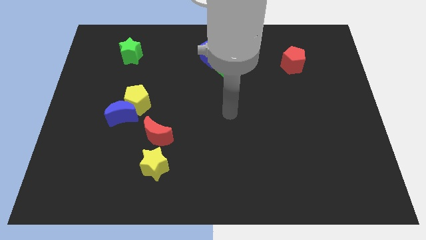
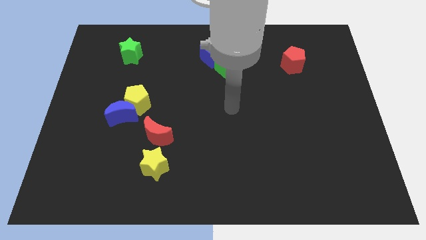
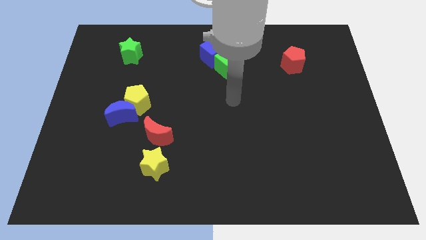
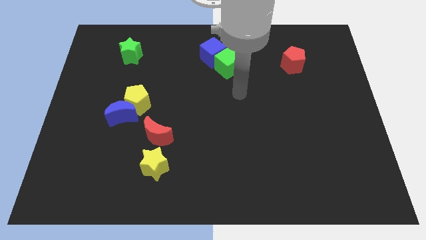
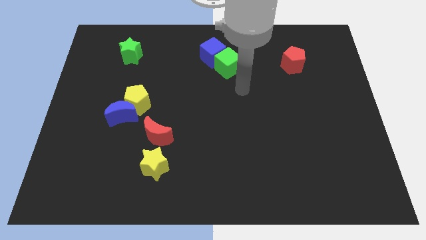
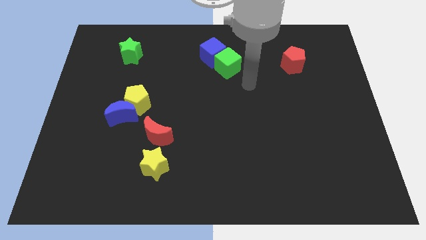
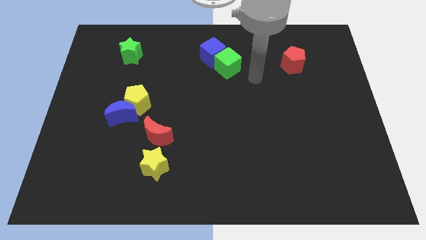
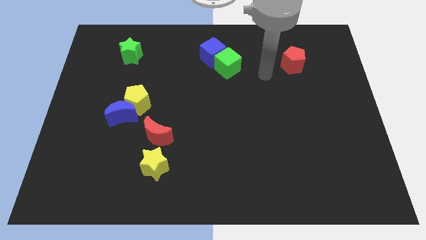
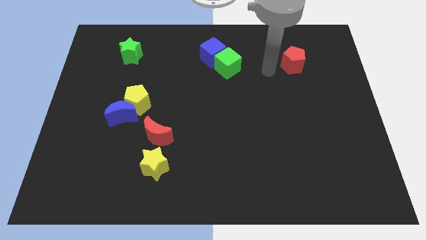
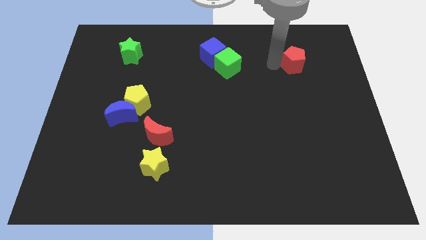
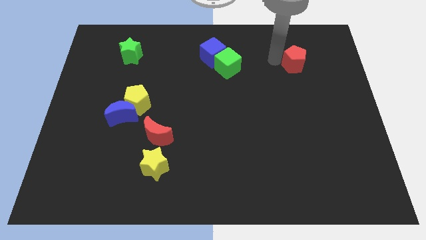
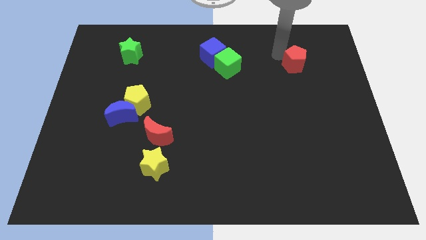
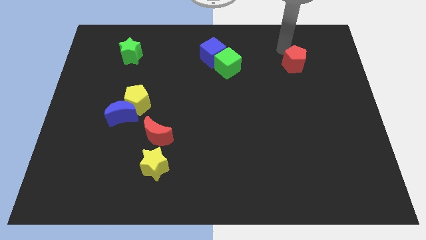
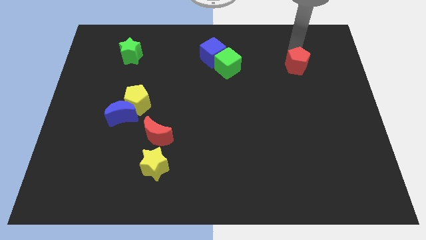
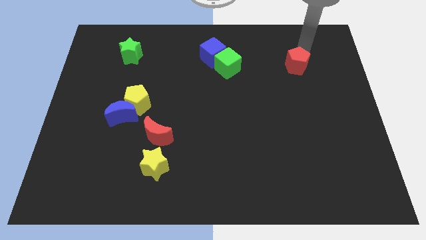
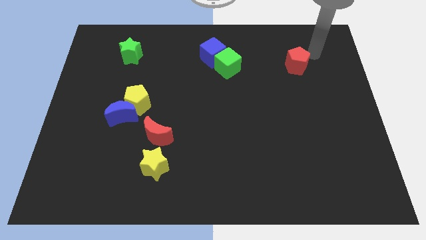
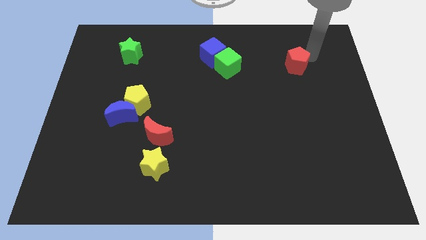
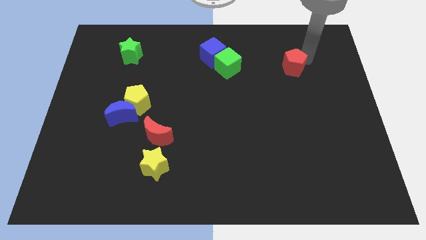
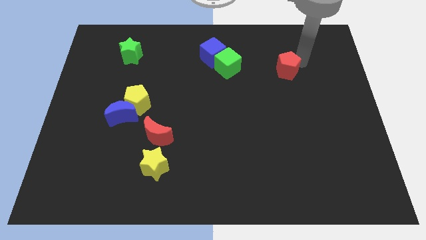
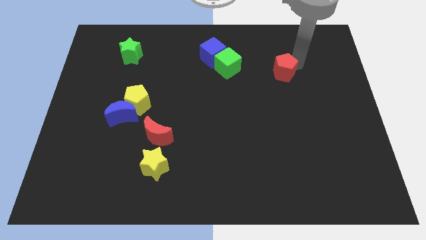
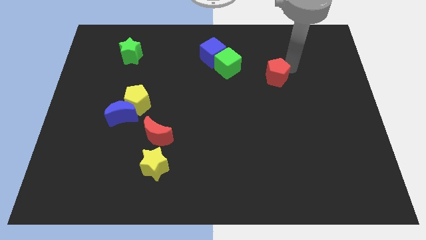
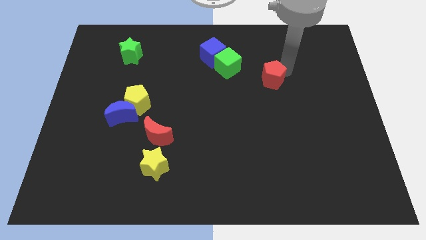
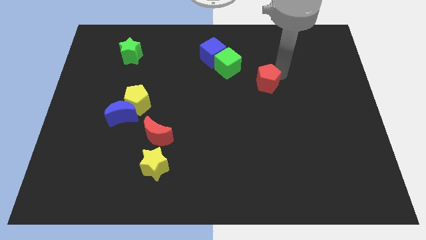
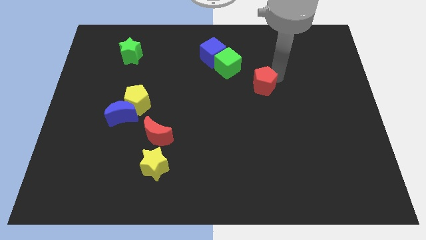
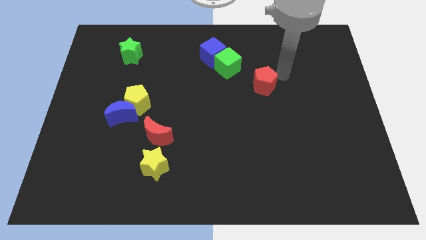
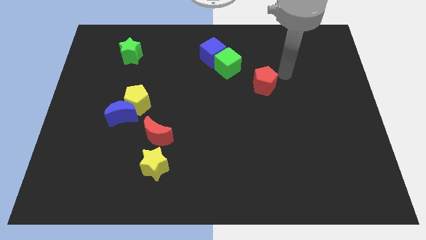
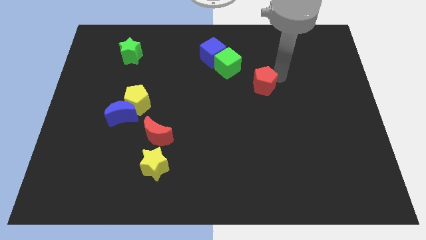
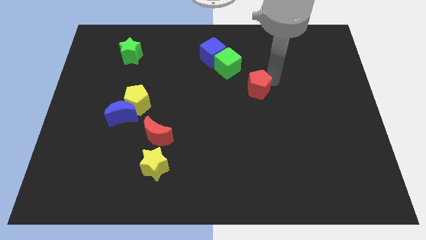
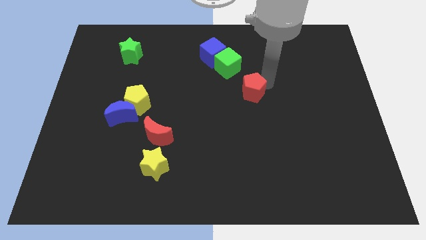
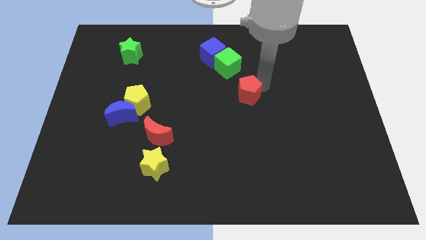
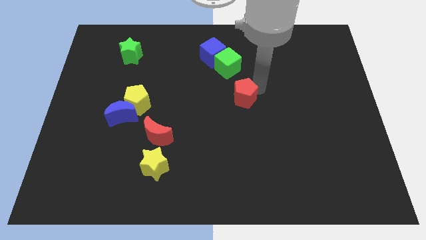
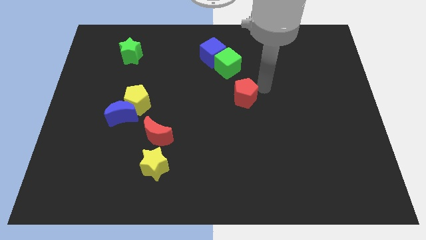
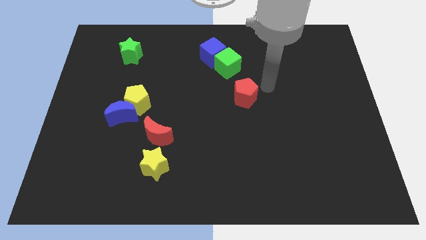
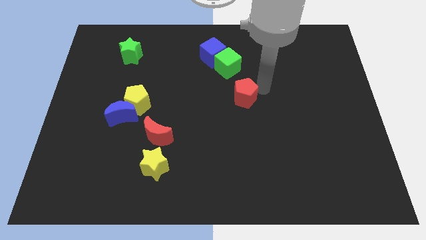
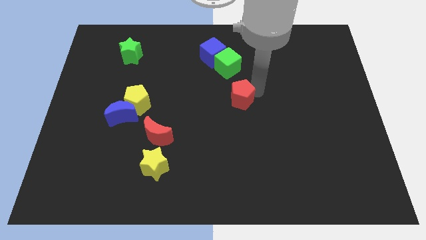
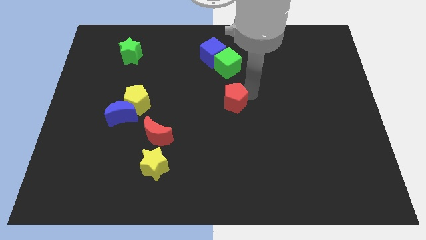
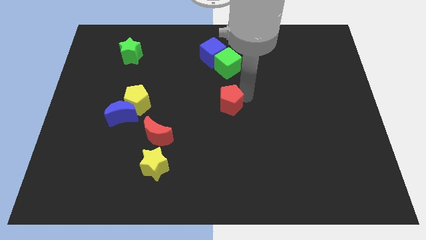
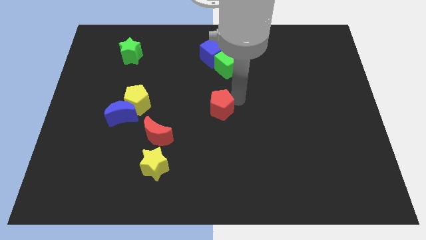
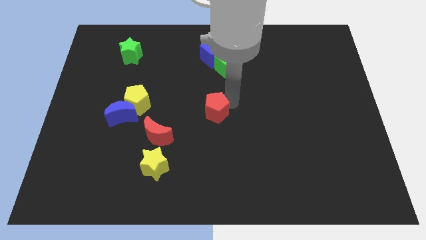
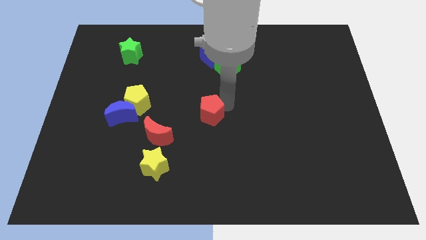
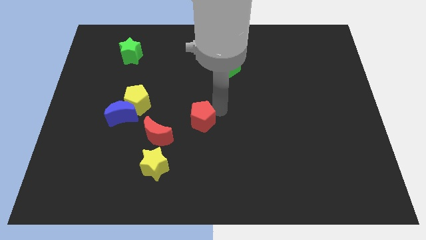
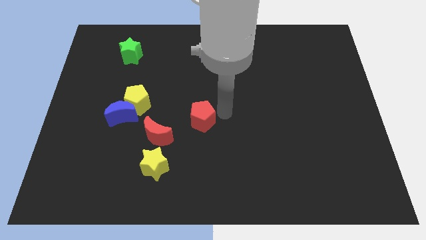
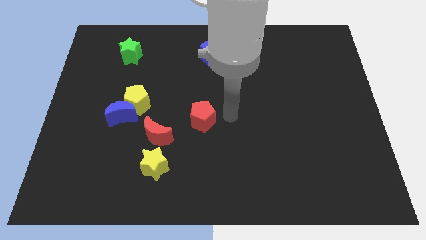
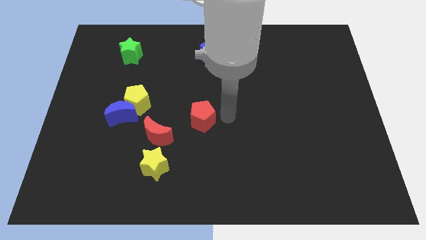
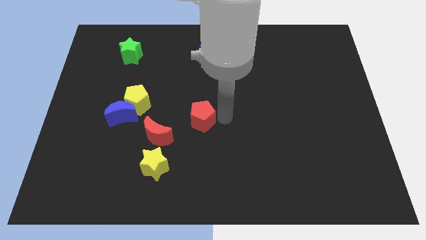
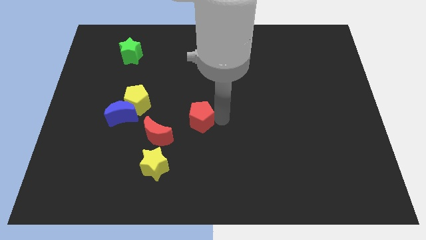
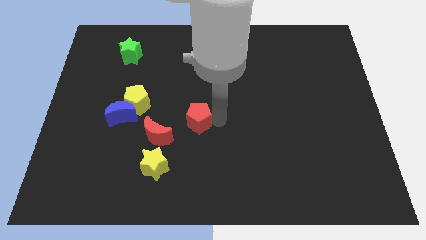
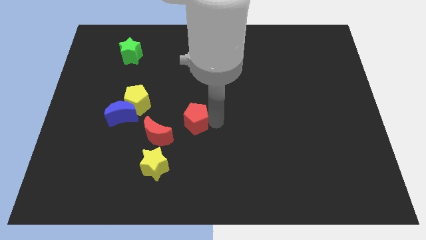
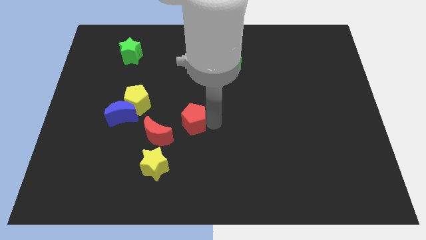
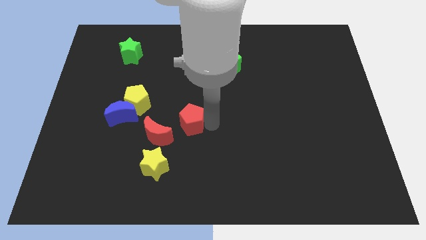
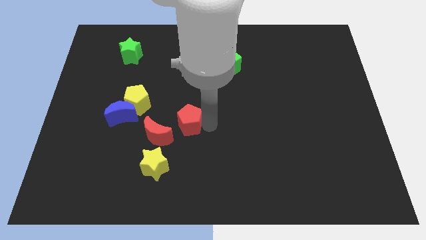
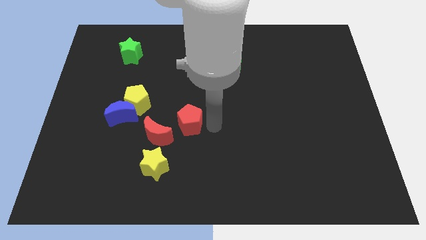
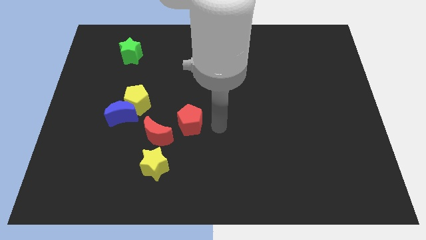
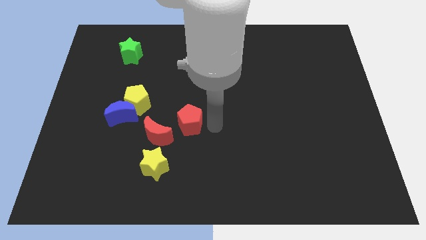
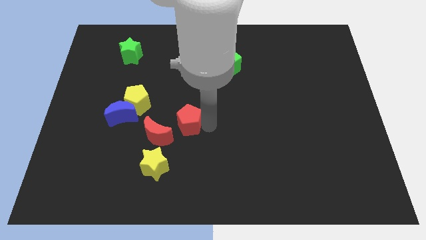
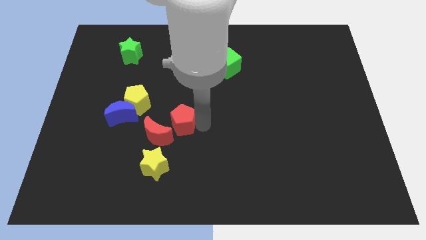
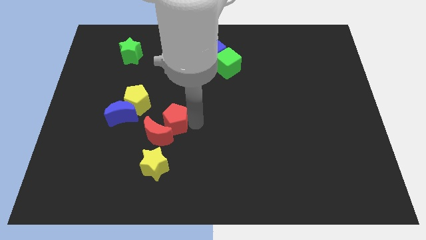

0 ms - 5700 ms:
push the red pentagon close to the red moon

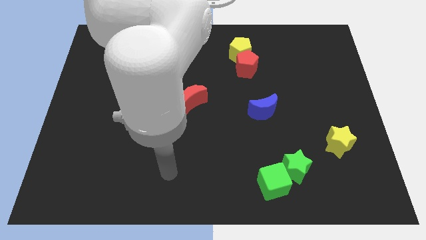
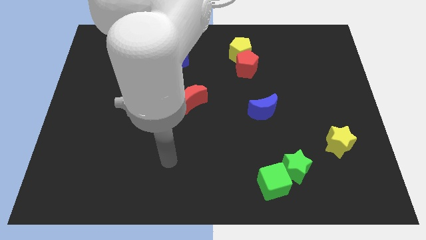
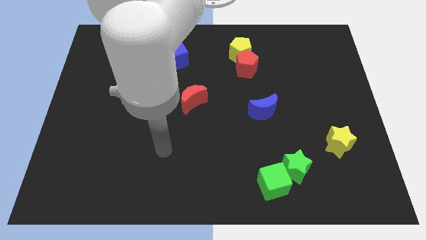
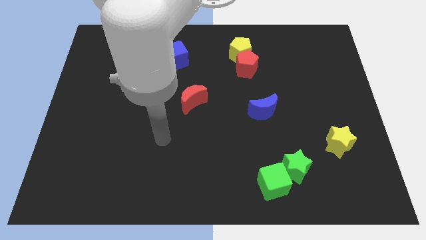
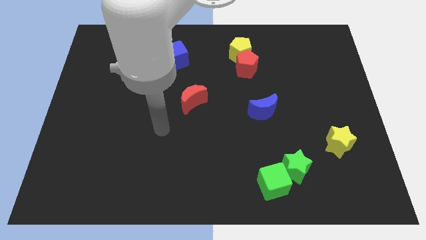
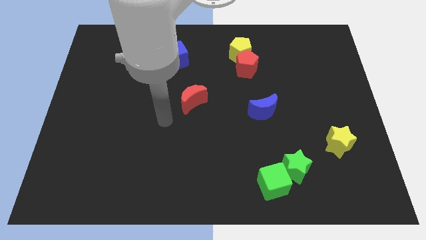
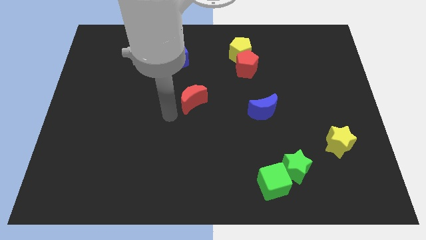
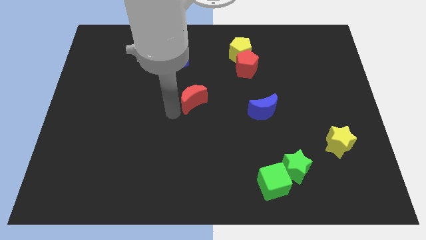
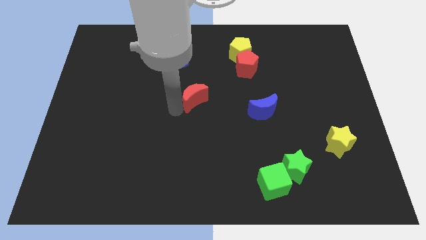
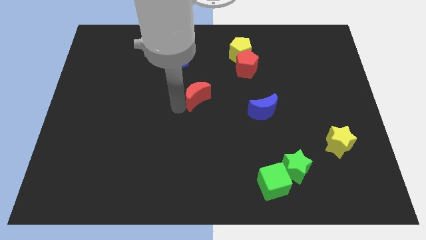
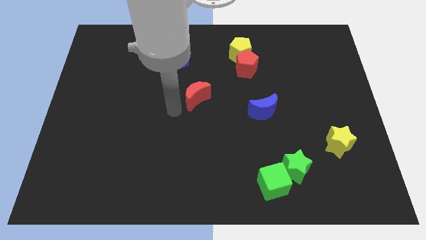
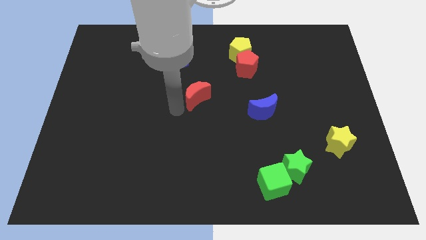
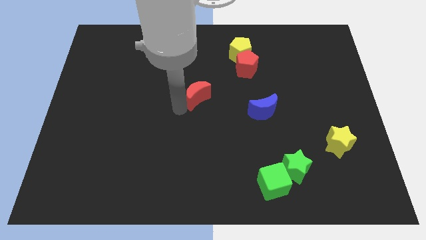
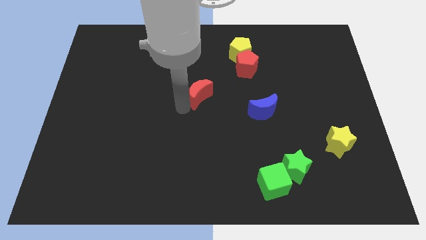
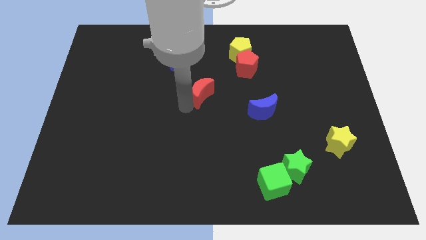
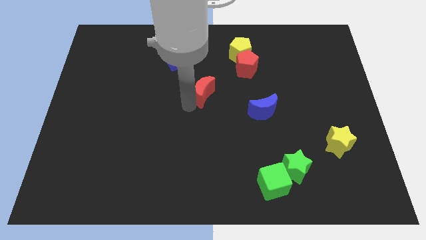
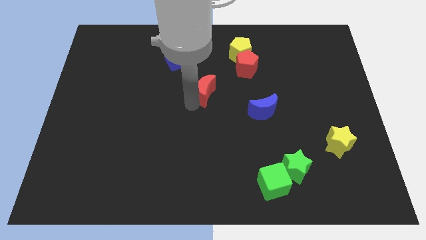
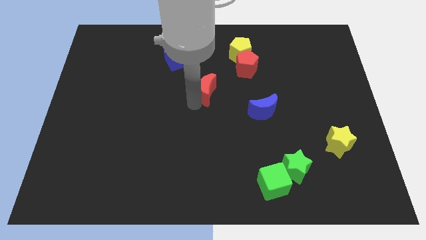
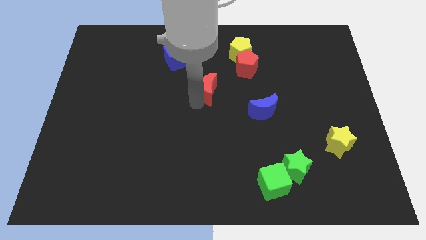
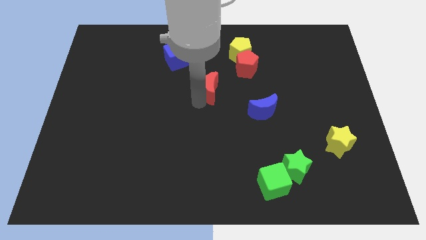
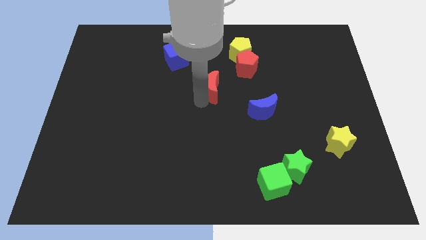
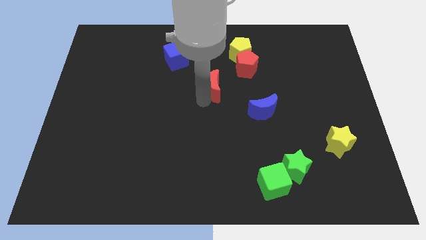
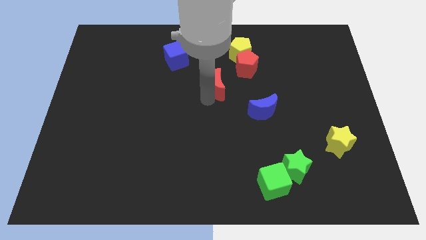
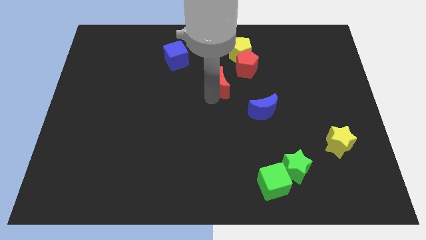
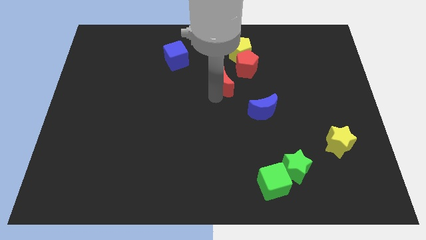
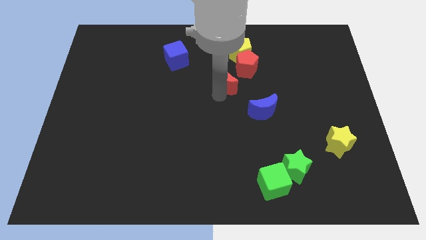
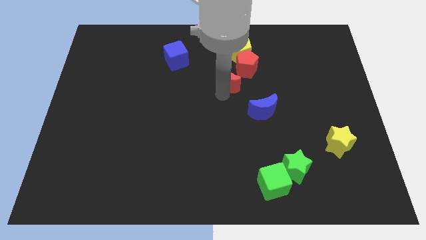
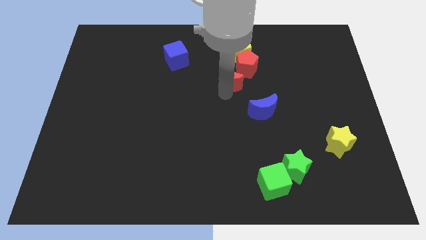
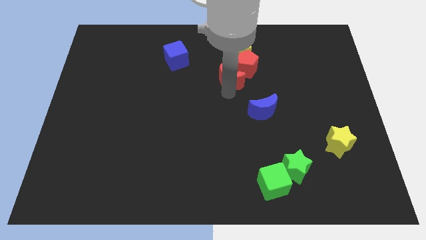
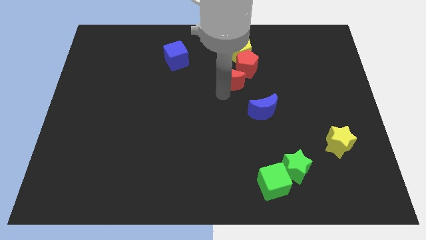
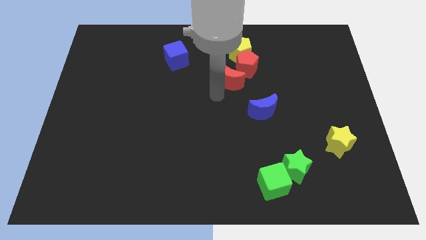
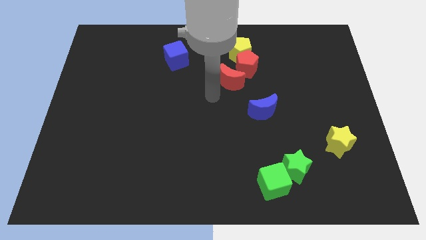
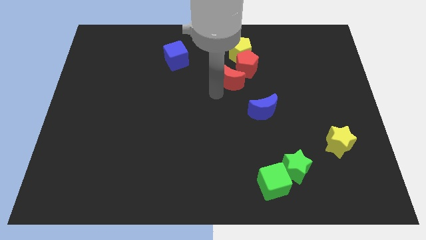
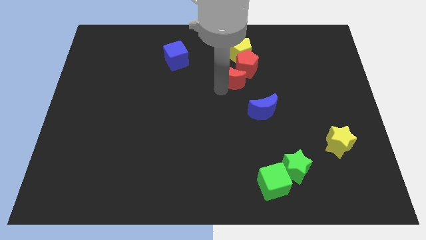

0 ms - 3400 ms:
slide the red moon towards the red pentagon
